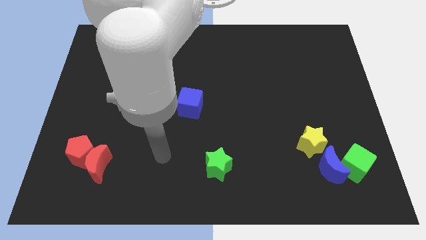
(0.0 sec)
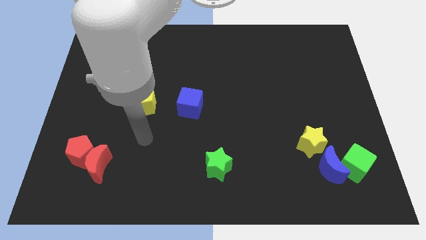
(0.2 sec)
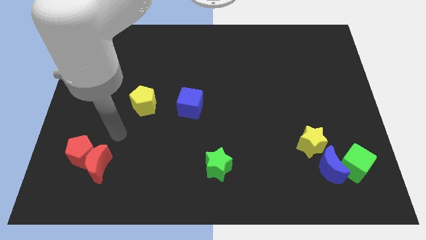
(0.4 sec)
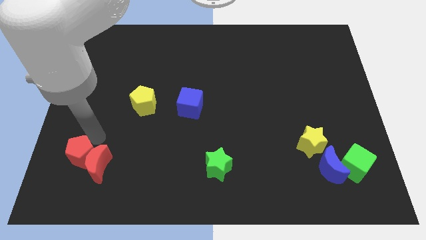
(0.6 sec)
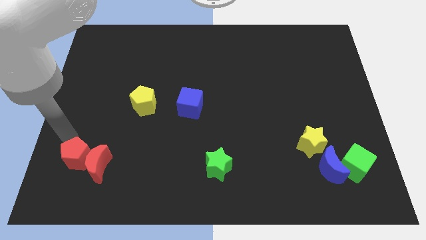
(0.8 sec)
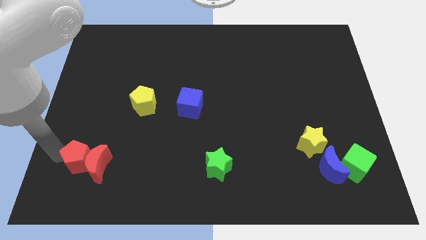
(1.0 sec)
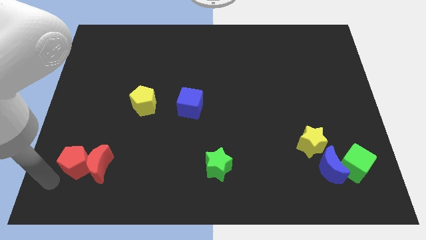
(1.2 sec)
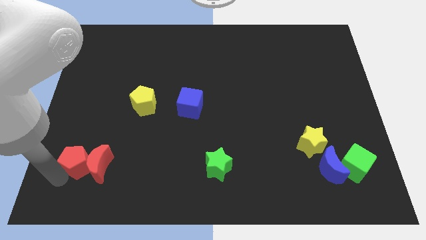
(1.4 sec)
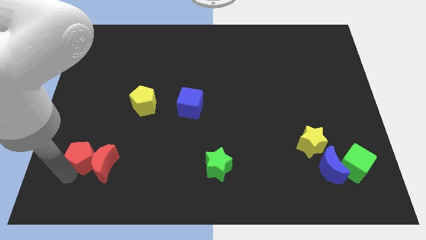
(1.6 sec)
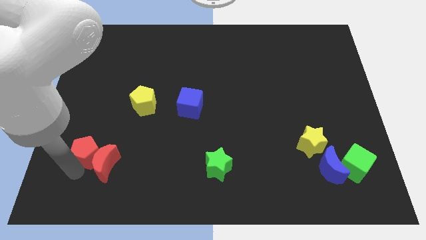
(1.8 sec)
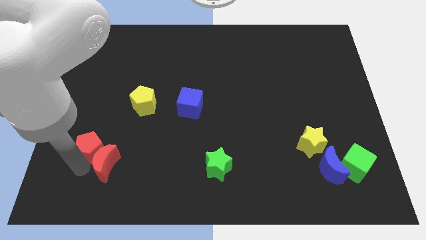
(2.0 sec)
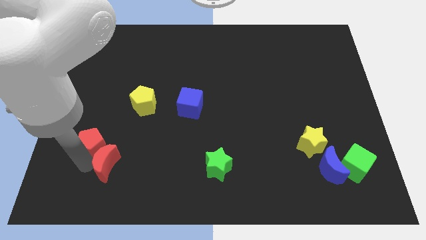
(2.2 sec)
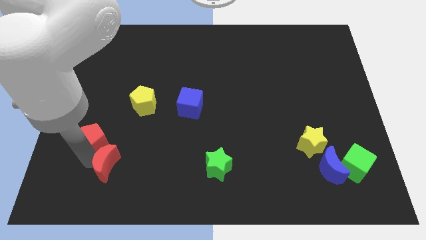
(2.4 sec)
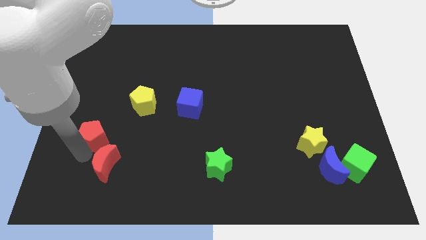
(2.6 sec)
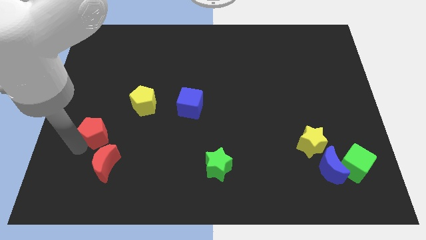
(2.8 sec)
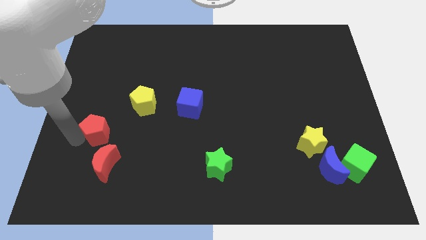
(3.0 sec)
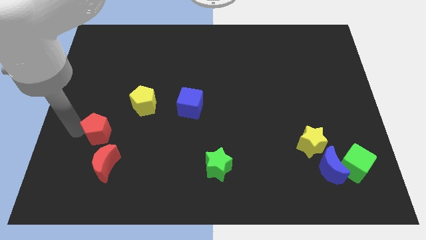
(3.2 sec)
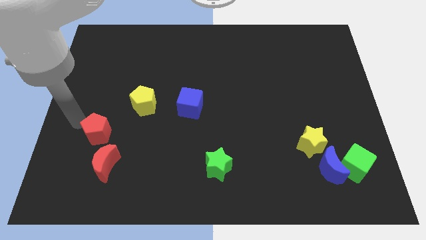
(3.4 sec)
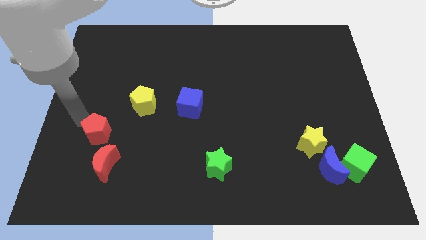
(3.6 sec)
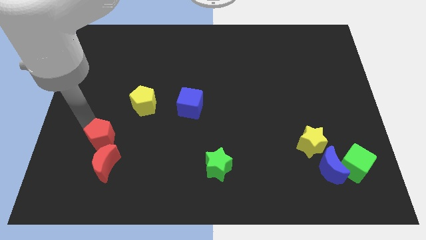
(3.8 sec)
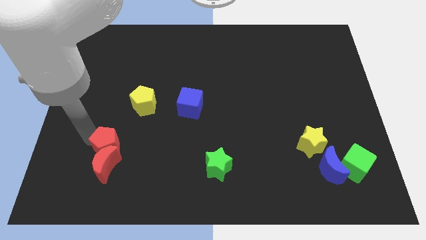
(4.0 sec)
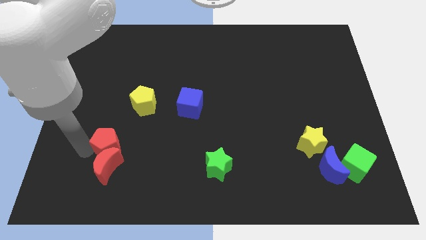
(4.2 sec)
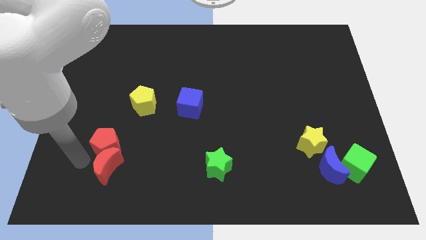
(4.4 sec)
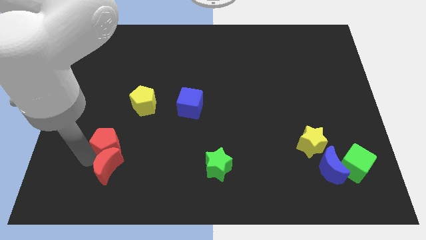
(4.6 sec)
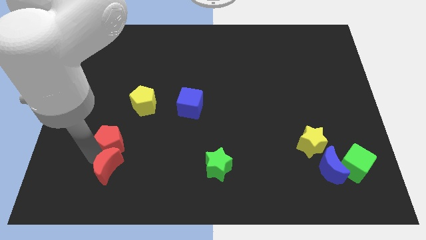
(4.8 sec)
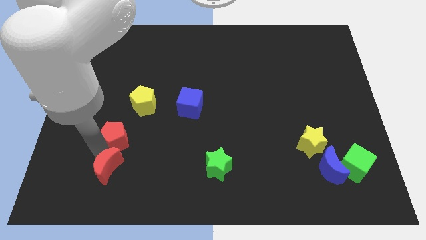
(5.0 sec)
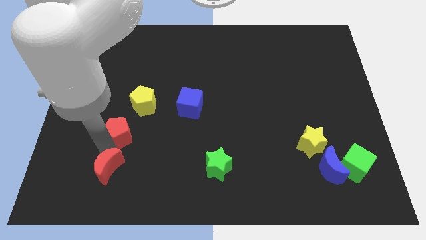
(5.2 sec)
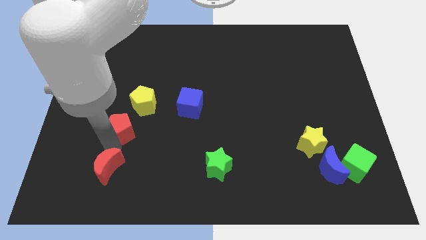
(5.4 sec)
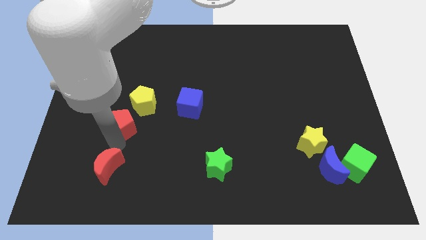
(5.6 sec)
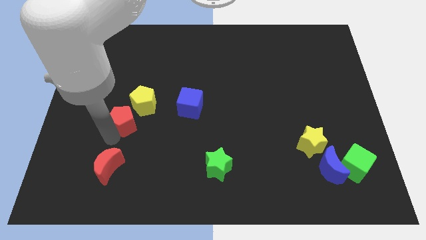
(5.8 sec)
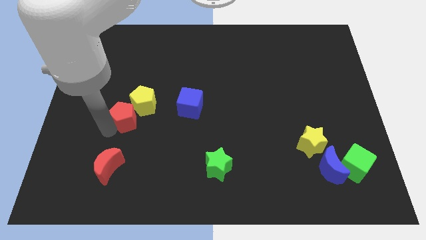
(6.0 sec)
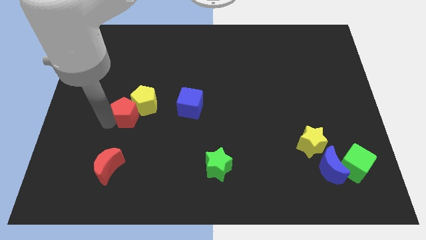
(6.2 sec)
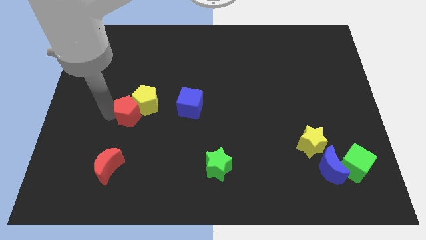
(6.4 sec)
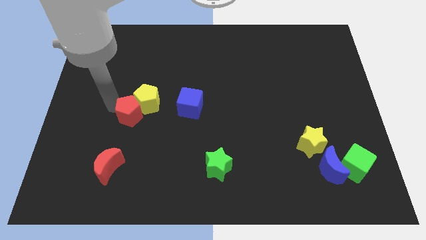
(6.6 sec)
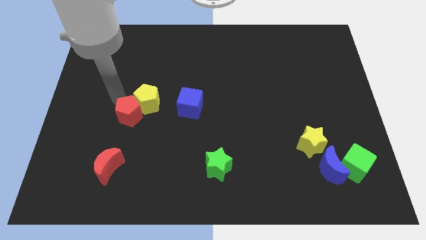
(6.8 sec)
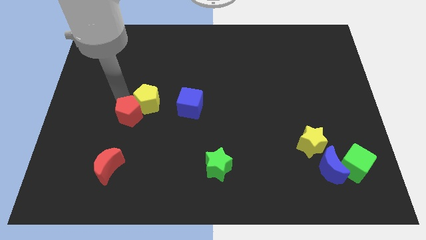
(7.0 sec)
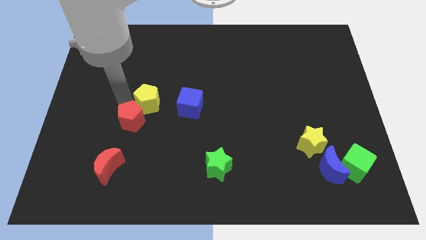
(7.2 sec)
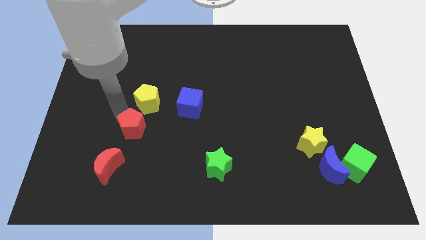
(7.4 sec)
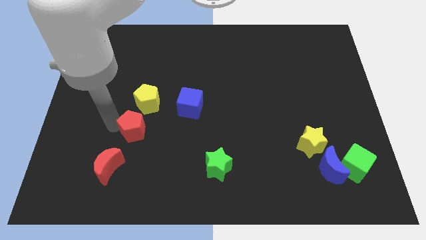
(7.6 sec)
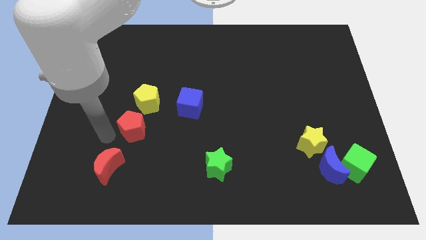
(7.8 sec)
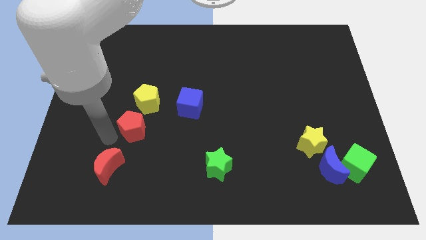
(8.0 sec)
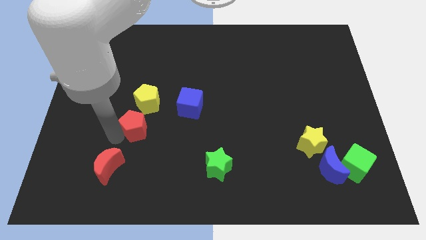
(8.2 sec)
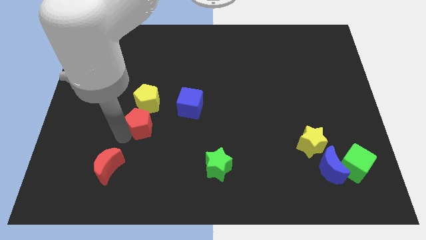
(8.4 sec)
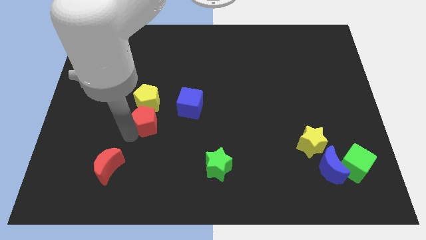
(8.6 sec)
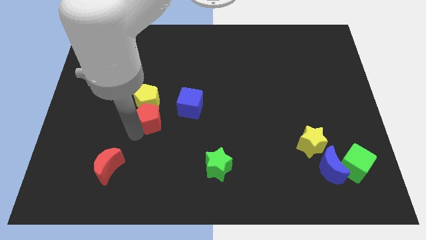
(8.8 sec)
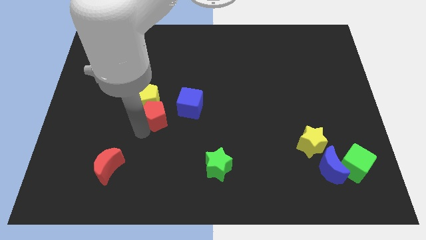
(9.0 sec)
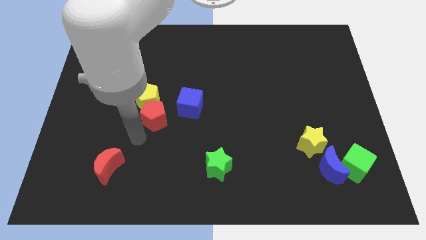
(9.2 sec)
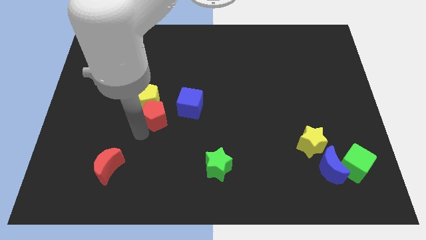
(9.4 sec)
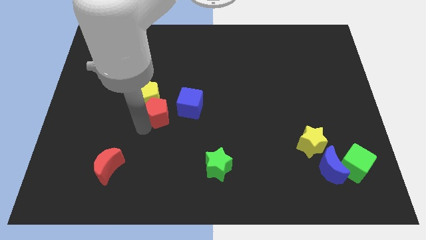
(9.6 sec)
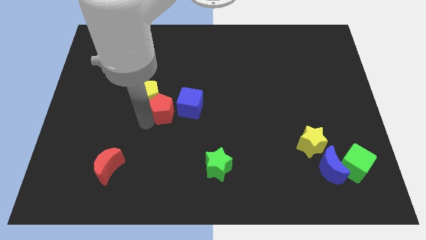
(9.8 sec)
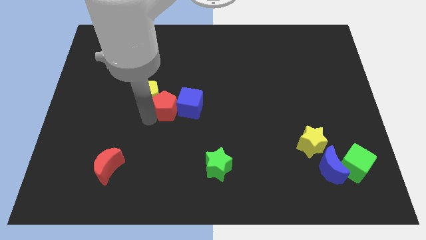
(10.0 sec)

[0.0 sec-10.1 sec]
move the red pentagon up and right

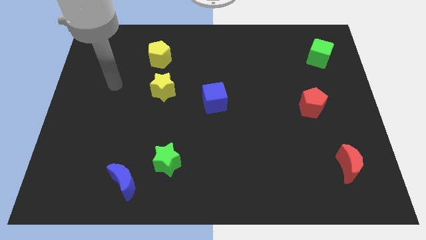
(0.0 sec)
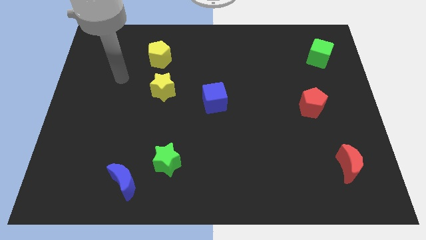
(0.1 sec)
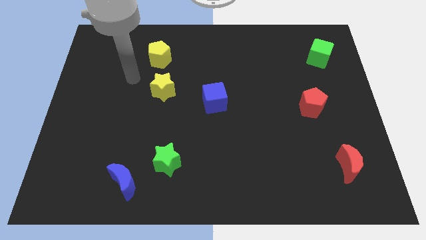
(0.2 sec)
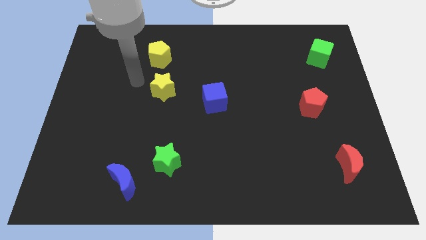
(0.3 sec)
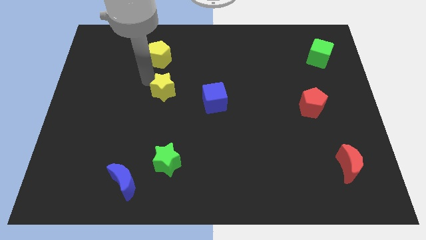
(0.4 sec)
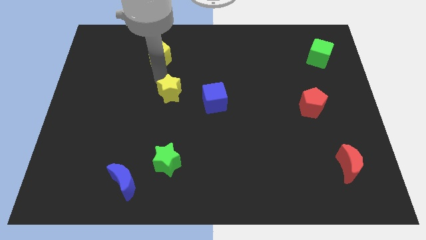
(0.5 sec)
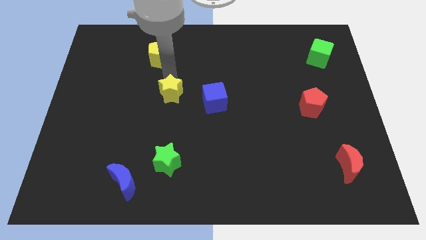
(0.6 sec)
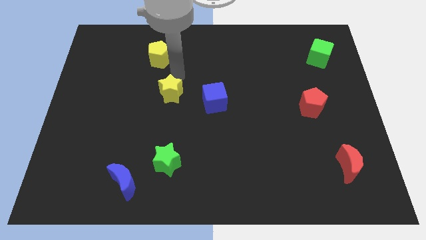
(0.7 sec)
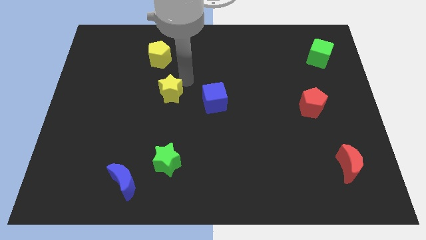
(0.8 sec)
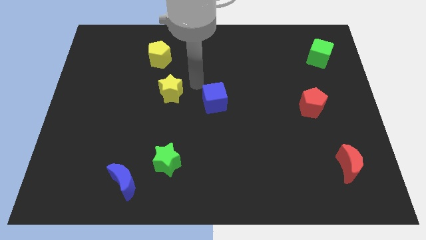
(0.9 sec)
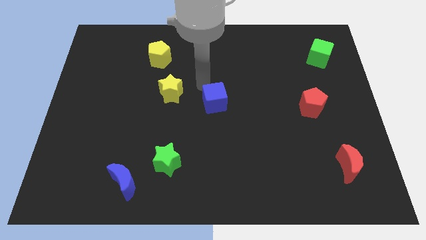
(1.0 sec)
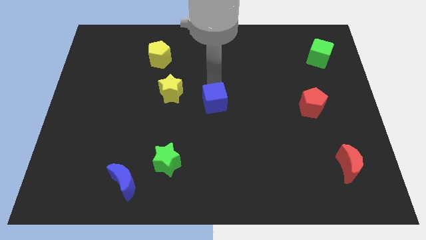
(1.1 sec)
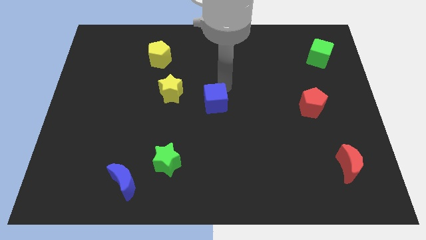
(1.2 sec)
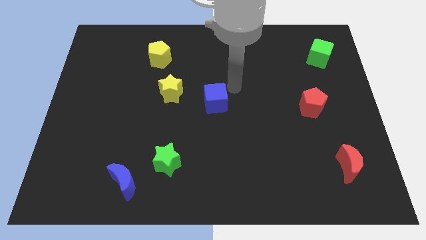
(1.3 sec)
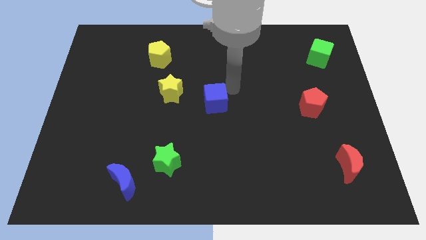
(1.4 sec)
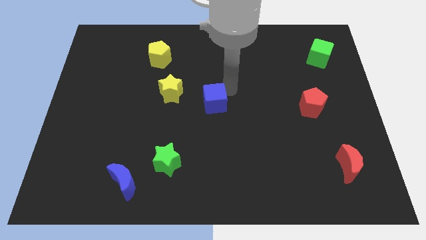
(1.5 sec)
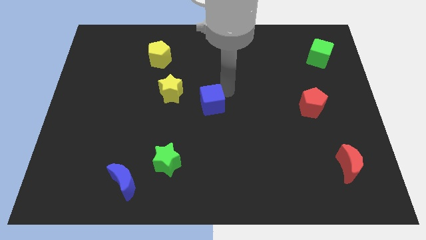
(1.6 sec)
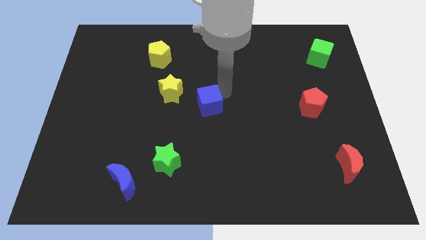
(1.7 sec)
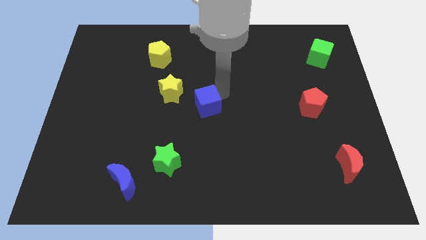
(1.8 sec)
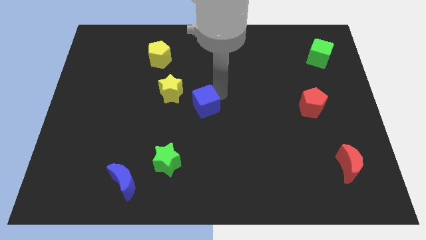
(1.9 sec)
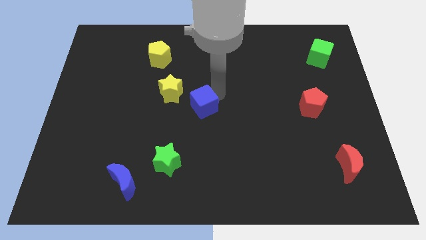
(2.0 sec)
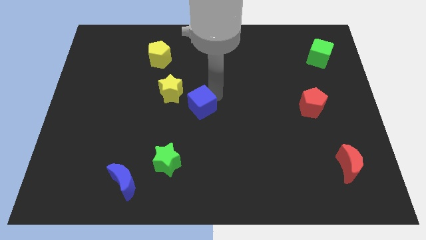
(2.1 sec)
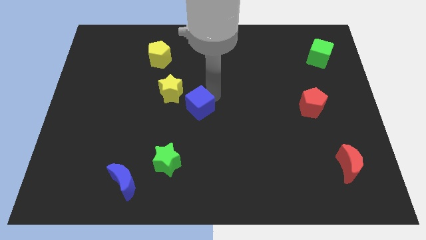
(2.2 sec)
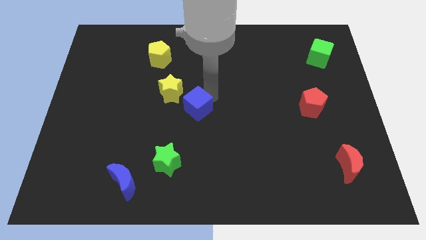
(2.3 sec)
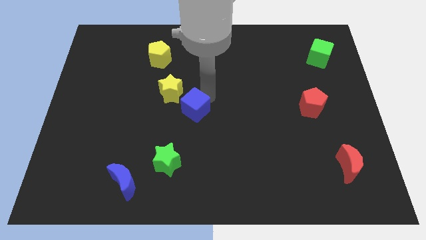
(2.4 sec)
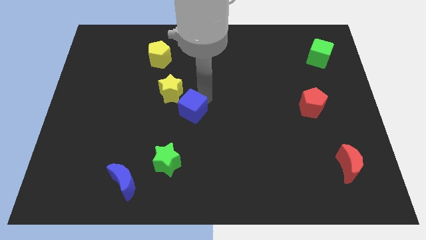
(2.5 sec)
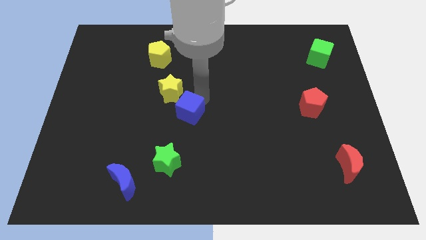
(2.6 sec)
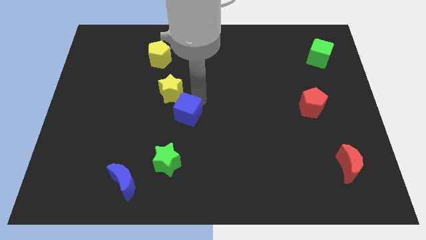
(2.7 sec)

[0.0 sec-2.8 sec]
push the blue cube down and left diagonally a bit

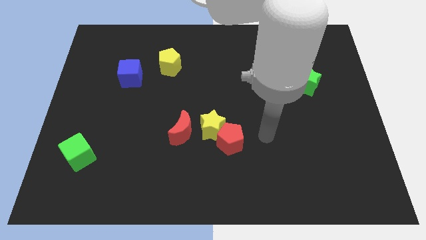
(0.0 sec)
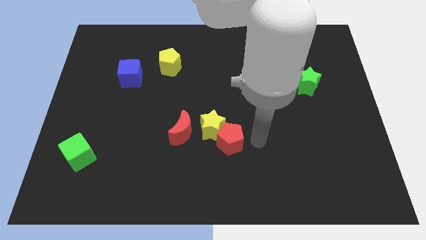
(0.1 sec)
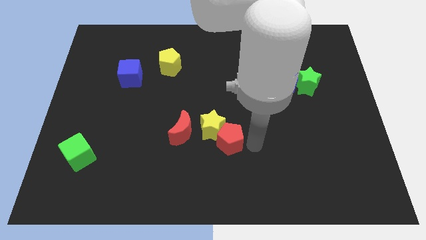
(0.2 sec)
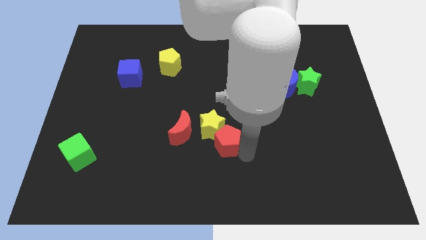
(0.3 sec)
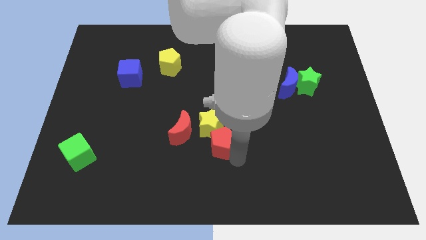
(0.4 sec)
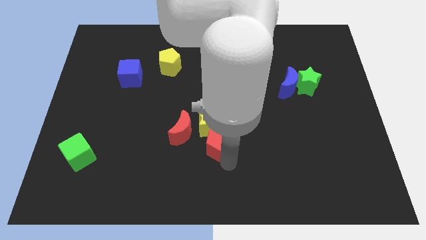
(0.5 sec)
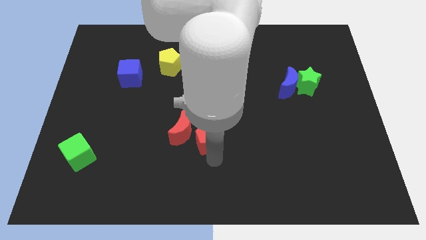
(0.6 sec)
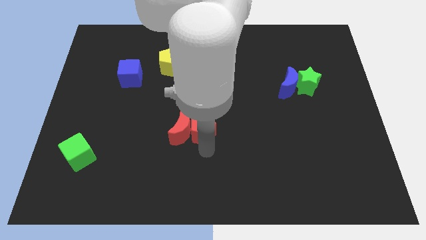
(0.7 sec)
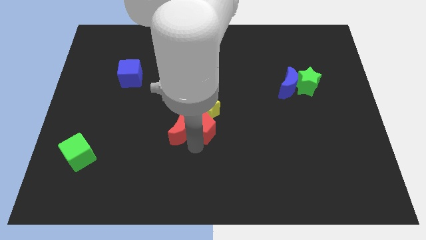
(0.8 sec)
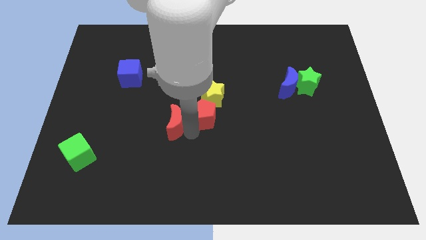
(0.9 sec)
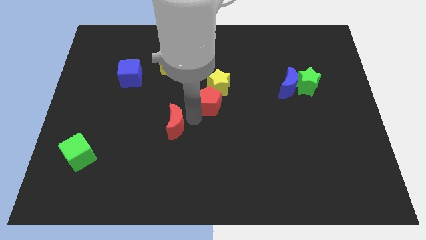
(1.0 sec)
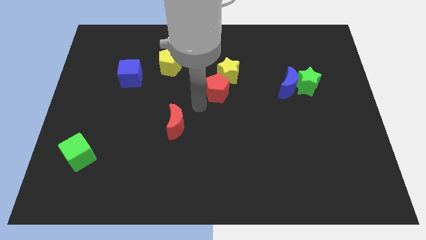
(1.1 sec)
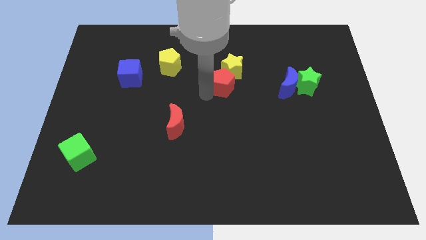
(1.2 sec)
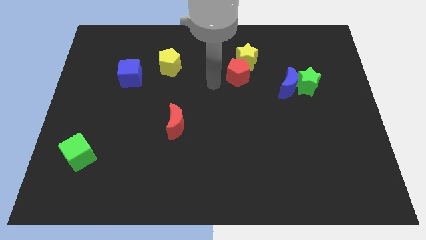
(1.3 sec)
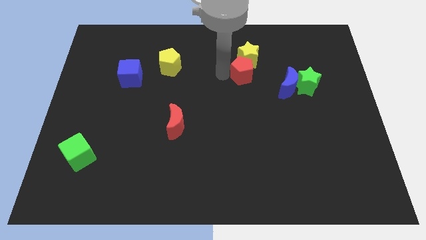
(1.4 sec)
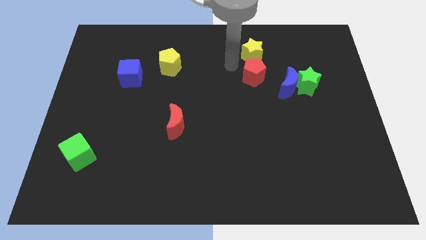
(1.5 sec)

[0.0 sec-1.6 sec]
move the yellow star up and right
